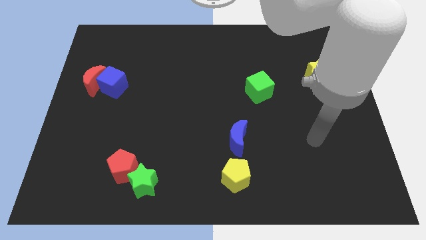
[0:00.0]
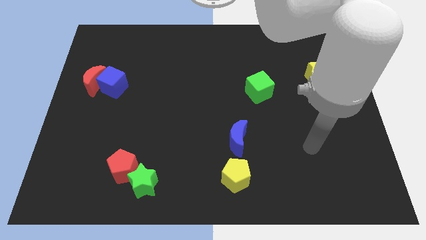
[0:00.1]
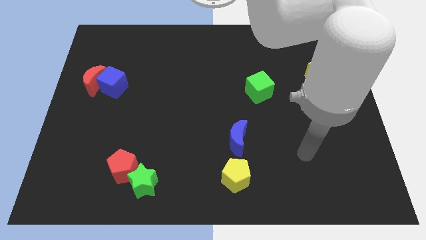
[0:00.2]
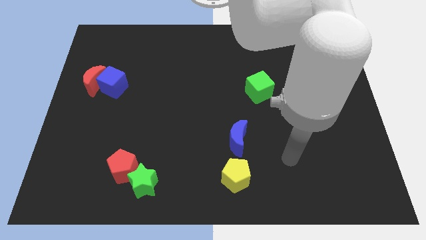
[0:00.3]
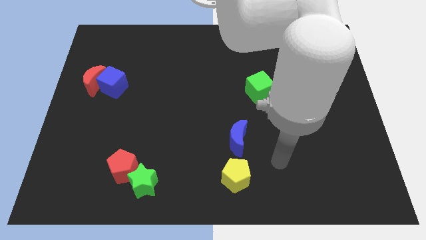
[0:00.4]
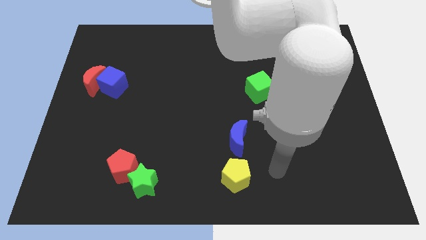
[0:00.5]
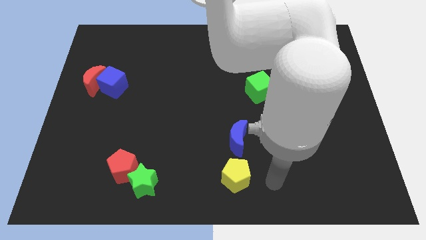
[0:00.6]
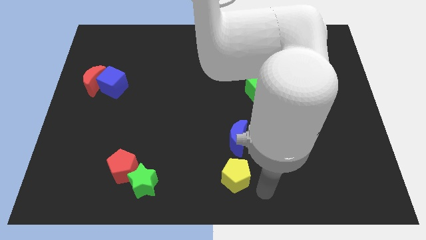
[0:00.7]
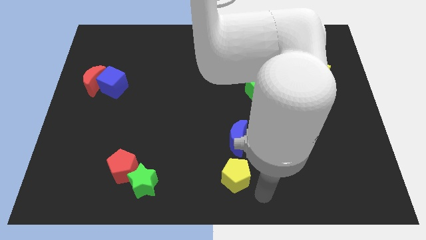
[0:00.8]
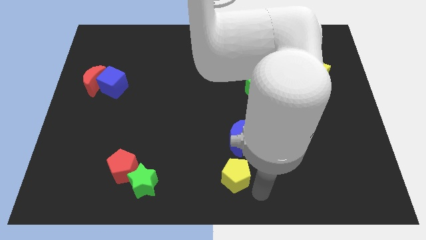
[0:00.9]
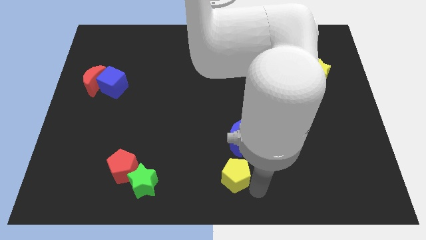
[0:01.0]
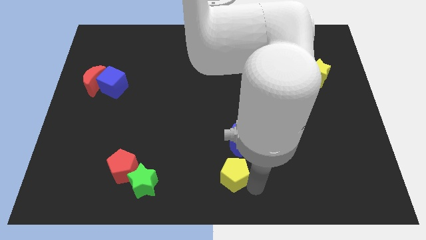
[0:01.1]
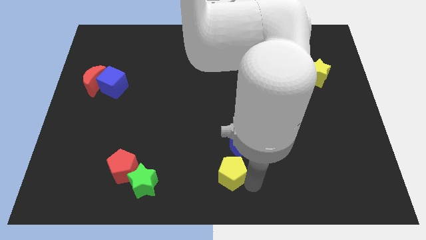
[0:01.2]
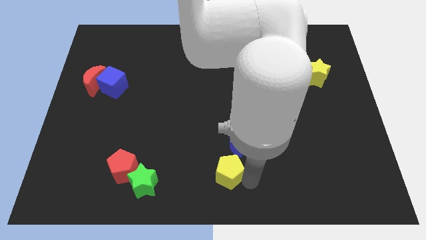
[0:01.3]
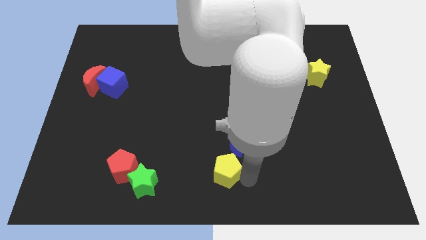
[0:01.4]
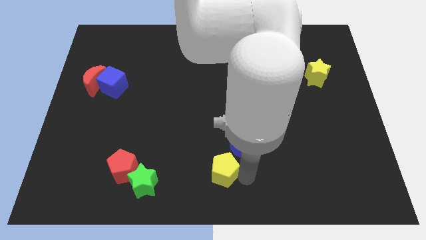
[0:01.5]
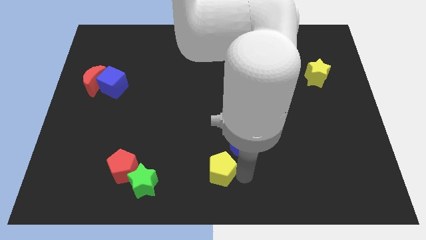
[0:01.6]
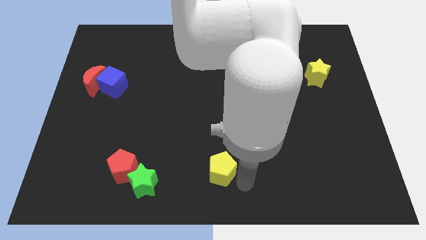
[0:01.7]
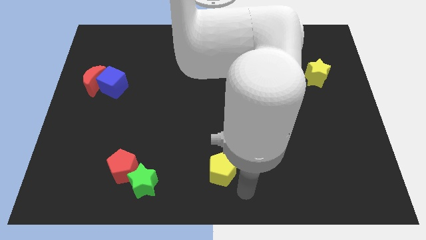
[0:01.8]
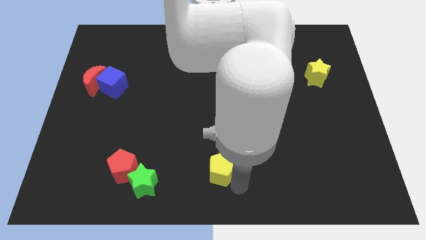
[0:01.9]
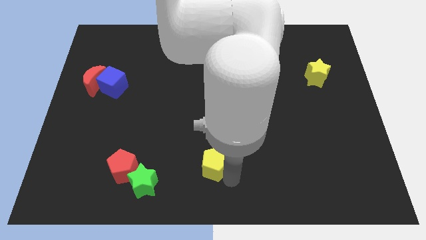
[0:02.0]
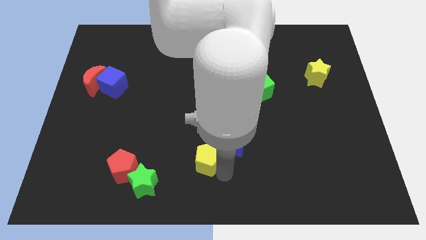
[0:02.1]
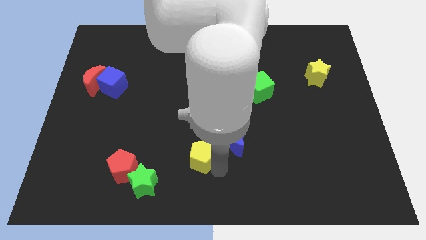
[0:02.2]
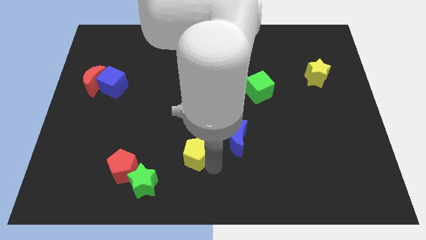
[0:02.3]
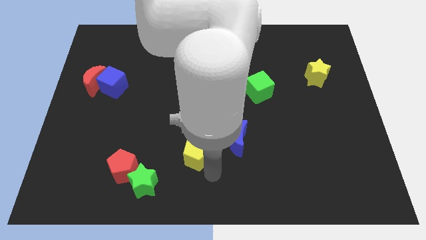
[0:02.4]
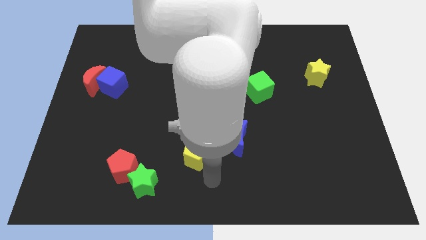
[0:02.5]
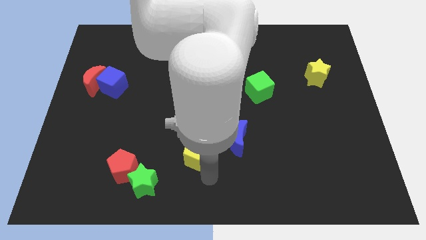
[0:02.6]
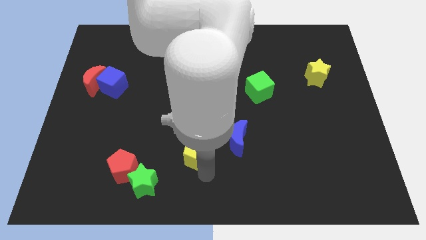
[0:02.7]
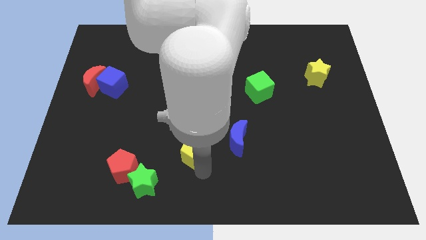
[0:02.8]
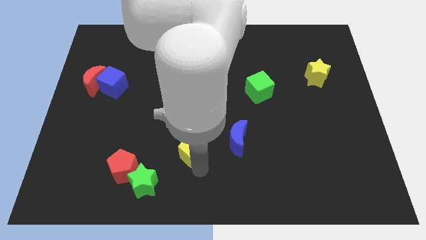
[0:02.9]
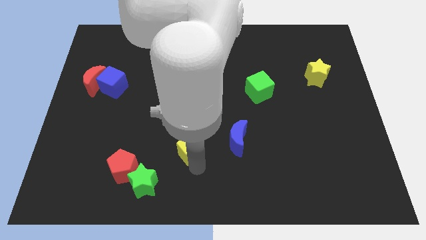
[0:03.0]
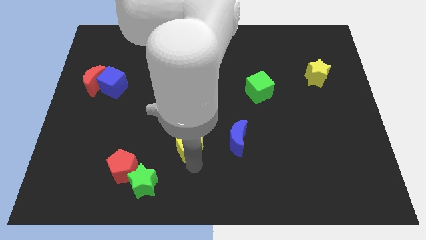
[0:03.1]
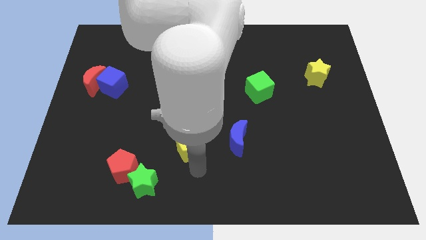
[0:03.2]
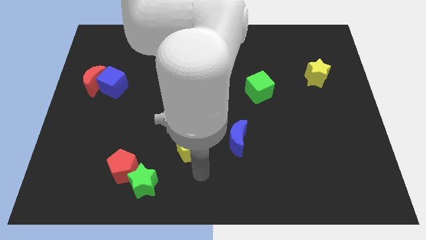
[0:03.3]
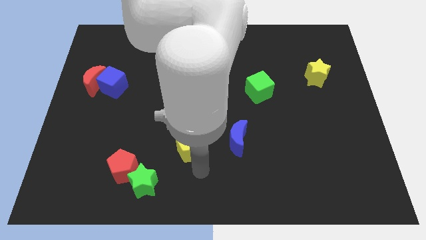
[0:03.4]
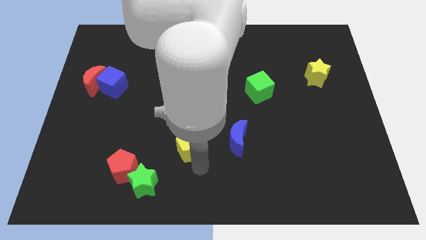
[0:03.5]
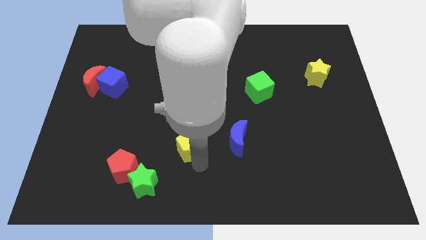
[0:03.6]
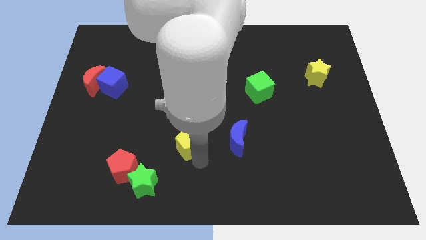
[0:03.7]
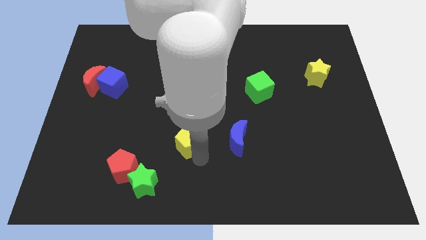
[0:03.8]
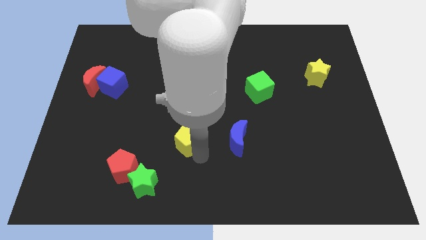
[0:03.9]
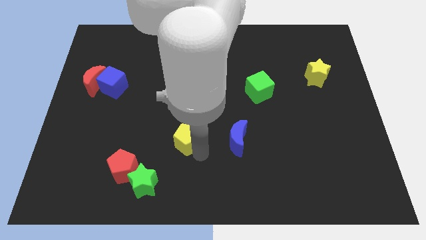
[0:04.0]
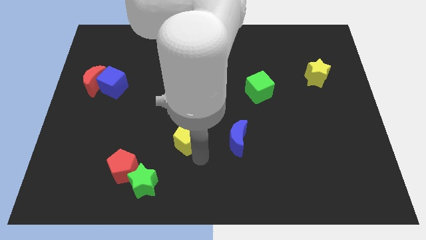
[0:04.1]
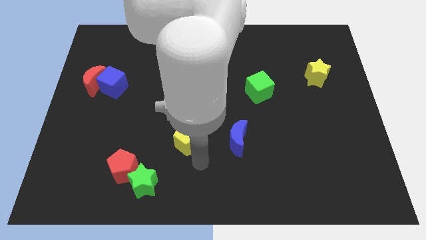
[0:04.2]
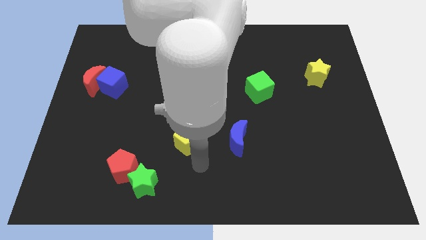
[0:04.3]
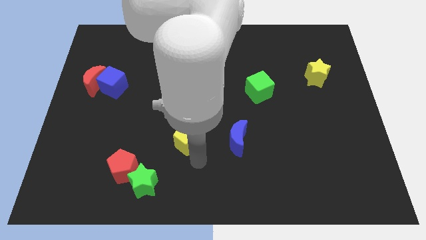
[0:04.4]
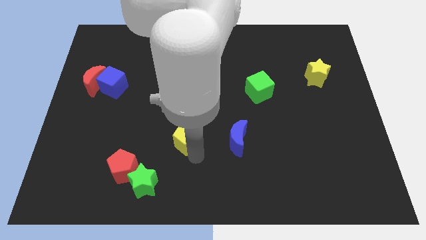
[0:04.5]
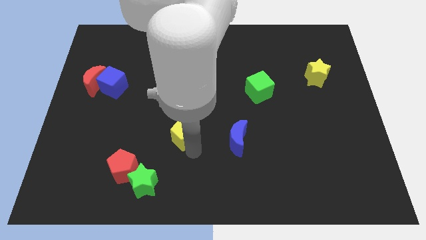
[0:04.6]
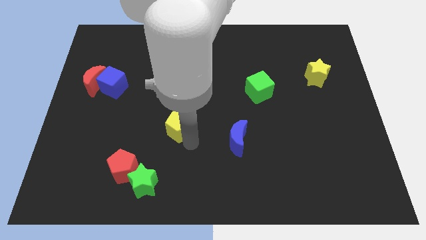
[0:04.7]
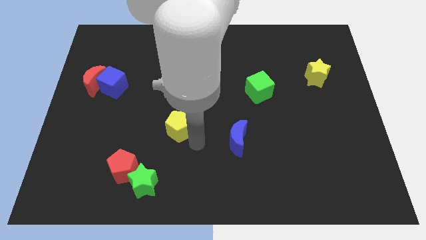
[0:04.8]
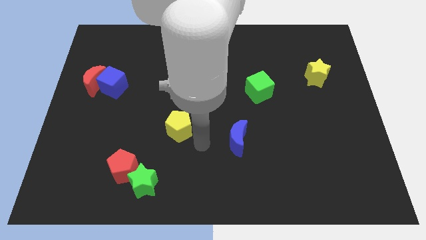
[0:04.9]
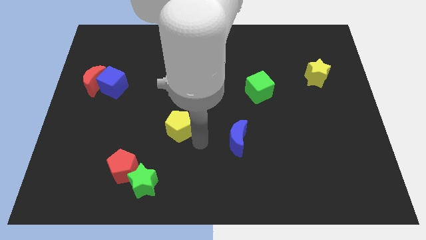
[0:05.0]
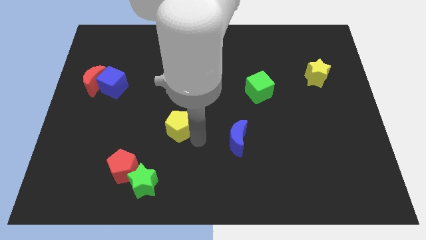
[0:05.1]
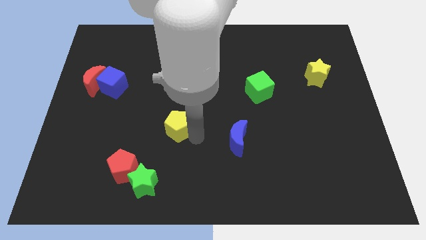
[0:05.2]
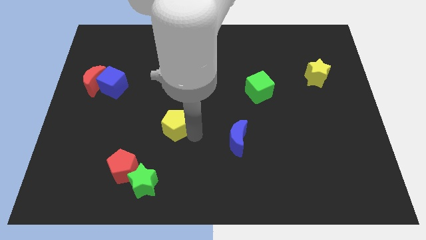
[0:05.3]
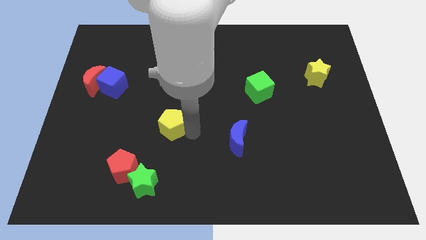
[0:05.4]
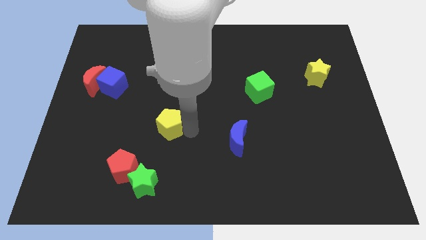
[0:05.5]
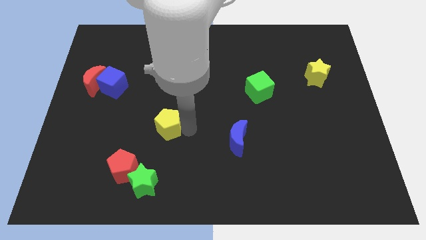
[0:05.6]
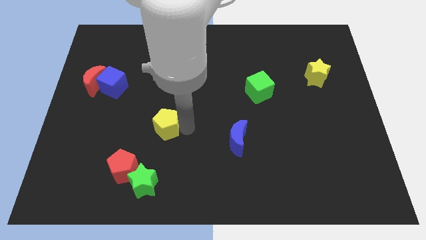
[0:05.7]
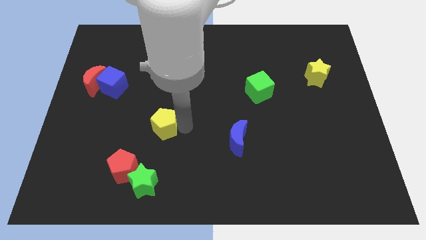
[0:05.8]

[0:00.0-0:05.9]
push the yellow pentagon upwards and left

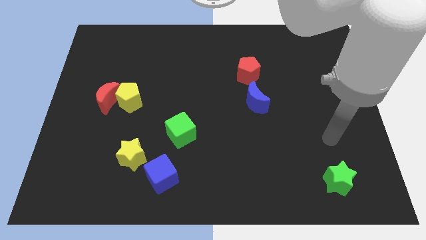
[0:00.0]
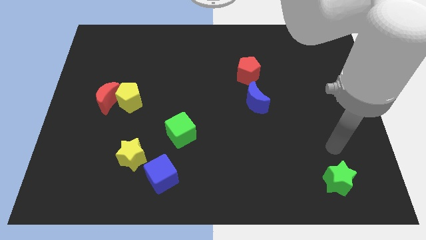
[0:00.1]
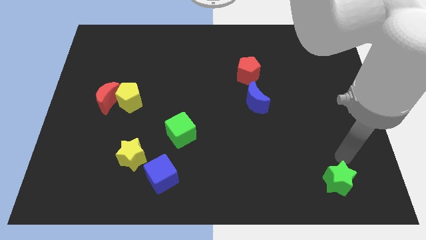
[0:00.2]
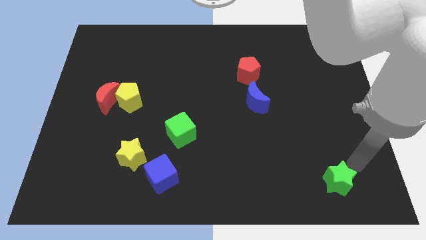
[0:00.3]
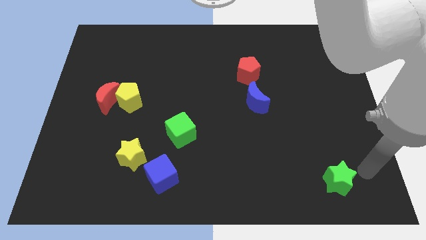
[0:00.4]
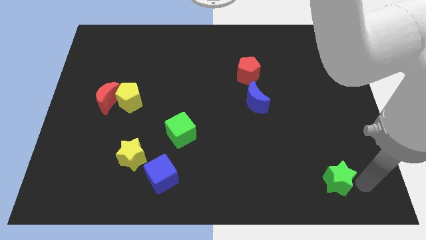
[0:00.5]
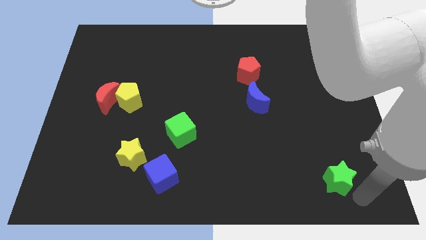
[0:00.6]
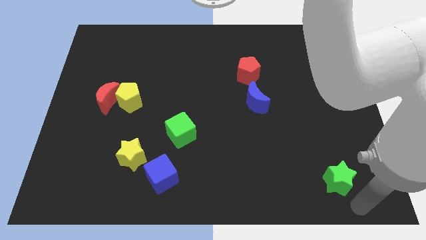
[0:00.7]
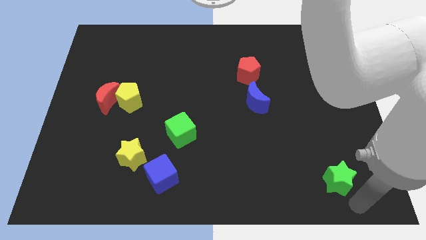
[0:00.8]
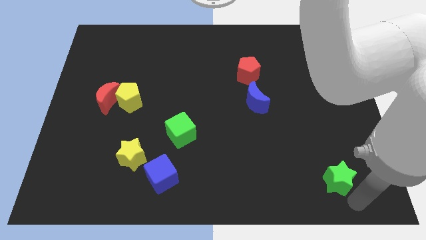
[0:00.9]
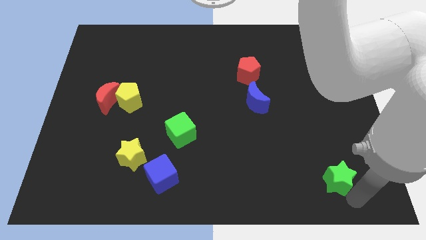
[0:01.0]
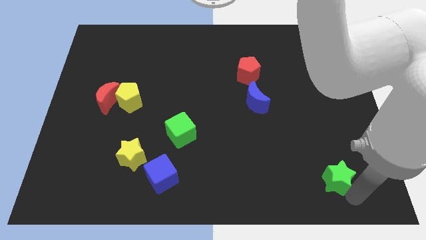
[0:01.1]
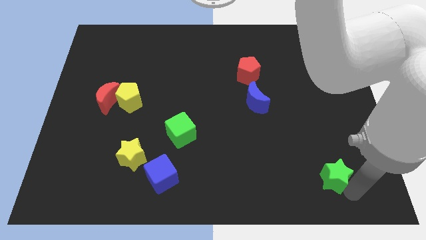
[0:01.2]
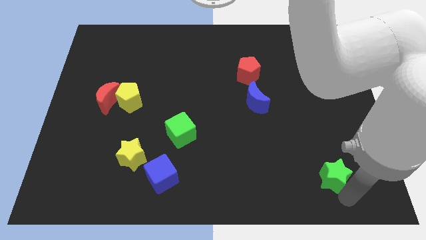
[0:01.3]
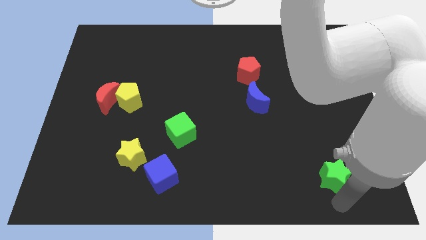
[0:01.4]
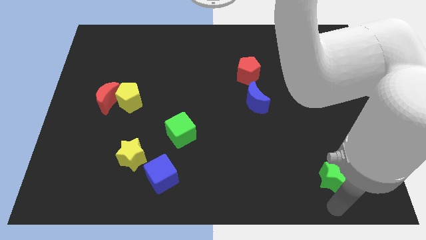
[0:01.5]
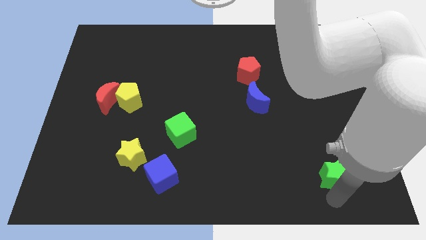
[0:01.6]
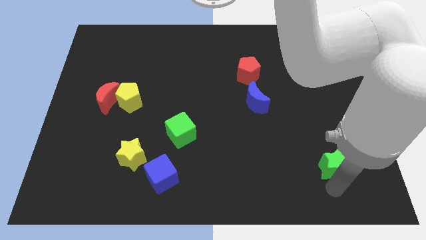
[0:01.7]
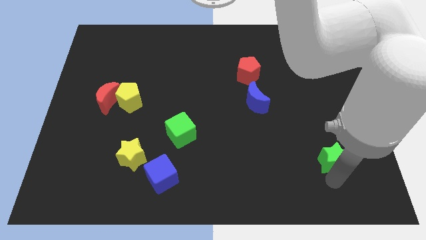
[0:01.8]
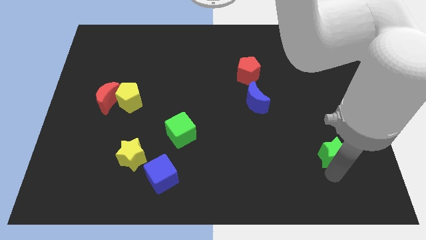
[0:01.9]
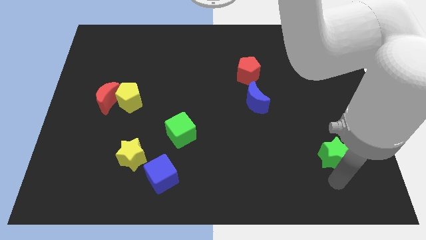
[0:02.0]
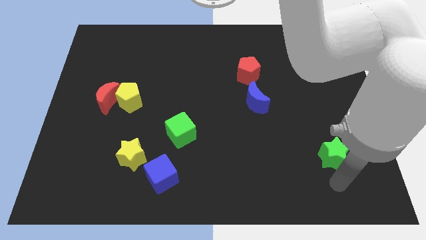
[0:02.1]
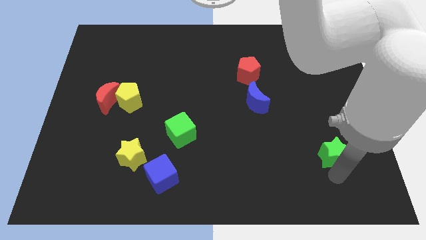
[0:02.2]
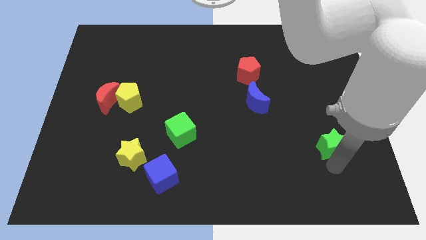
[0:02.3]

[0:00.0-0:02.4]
move the green star slightly upwards
